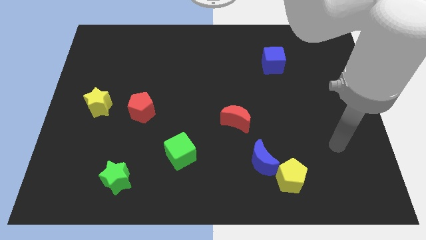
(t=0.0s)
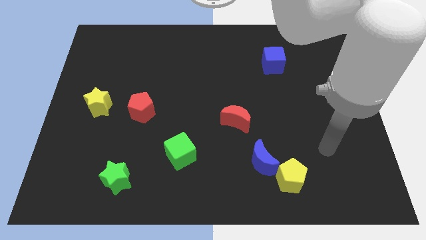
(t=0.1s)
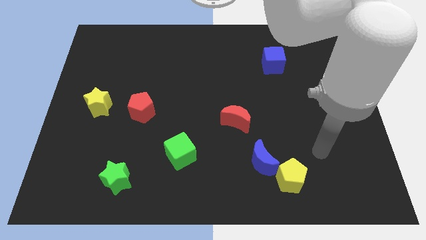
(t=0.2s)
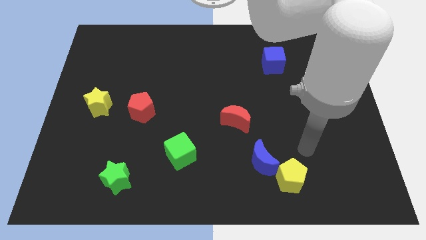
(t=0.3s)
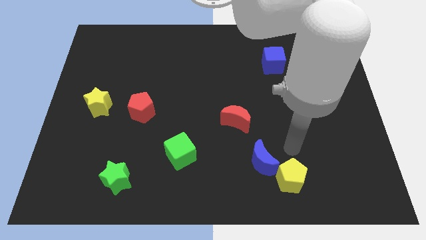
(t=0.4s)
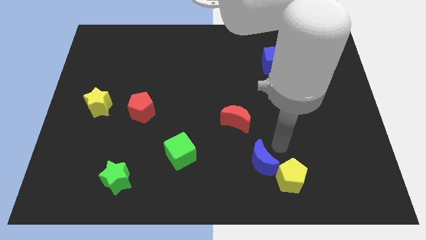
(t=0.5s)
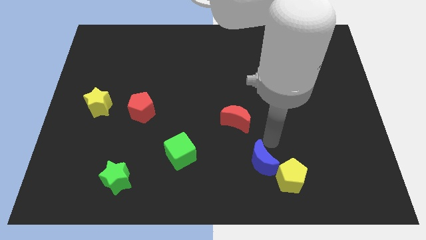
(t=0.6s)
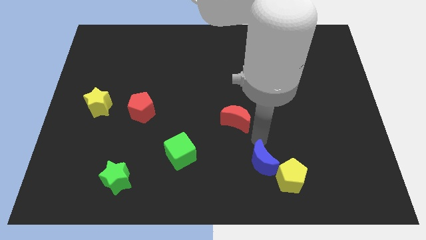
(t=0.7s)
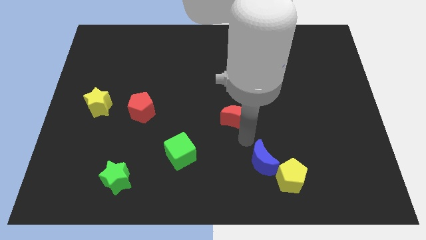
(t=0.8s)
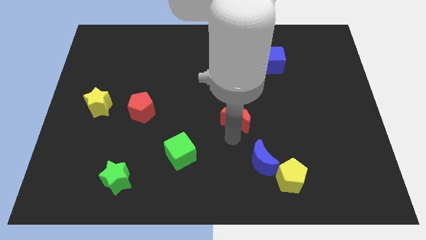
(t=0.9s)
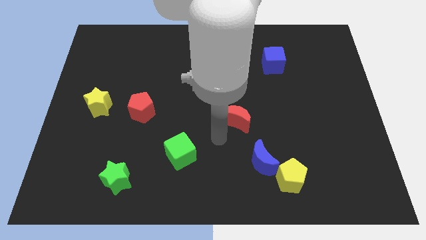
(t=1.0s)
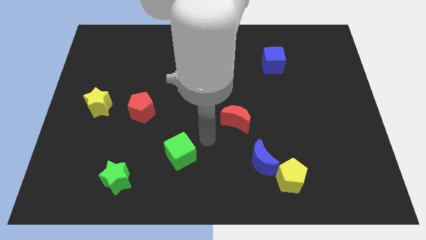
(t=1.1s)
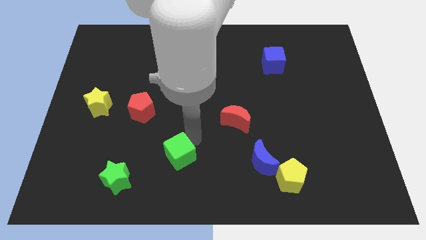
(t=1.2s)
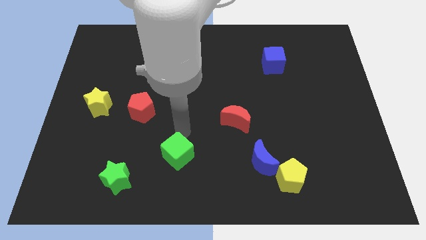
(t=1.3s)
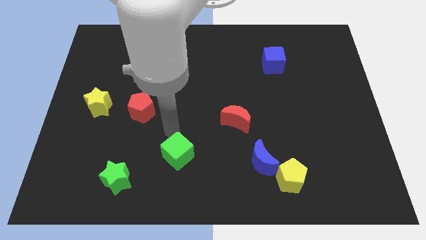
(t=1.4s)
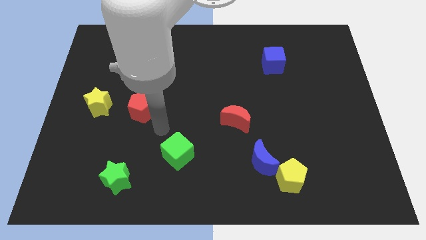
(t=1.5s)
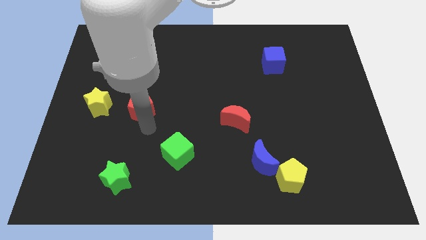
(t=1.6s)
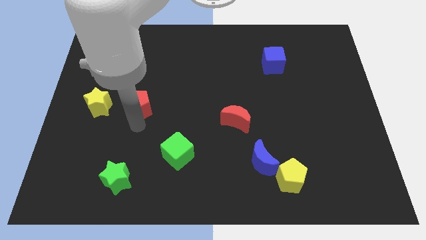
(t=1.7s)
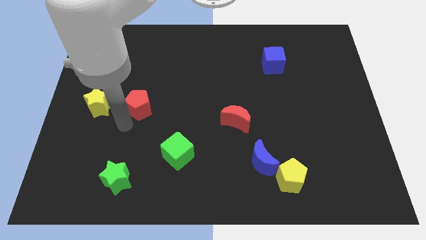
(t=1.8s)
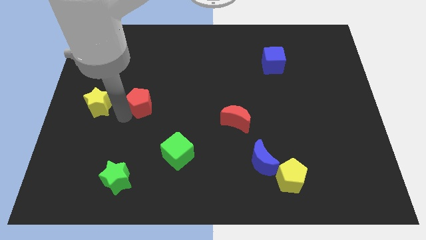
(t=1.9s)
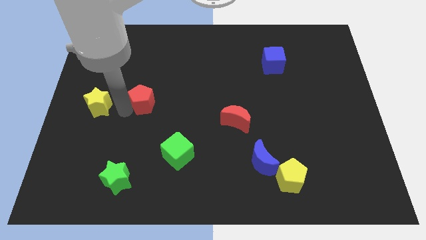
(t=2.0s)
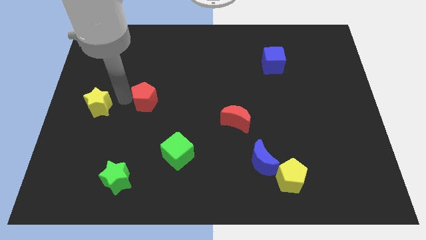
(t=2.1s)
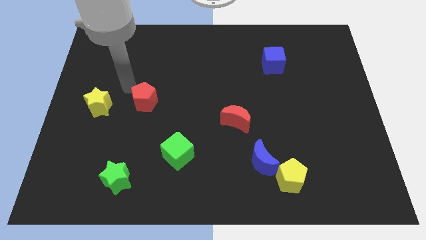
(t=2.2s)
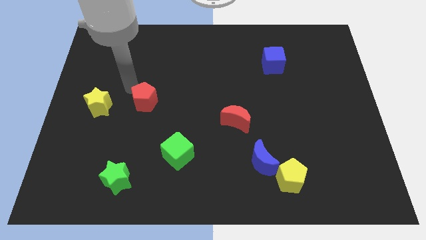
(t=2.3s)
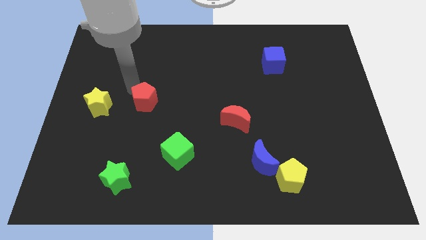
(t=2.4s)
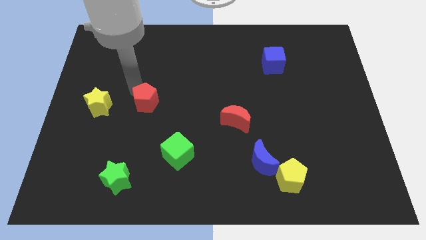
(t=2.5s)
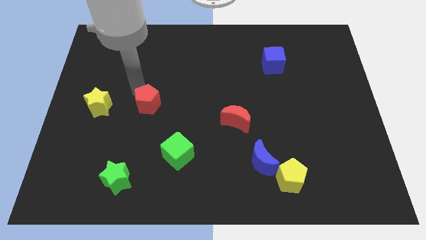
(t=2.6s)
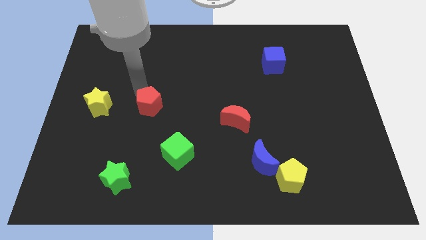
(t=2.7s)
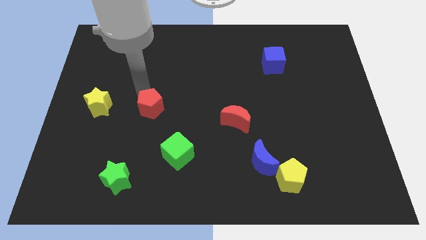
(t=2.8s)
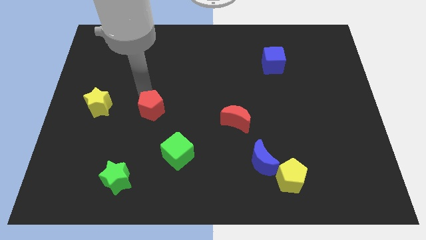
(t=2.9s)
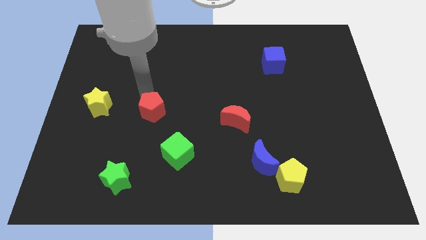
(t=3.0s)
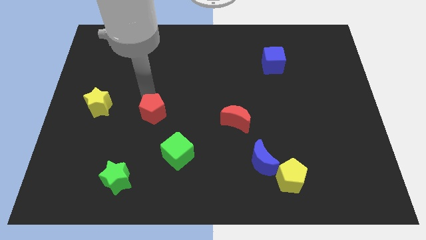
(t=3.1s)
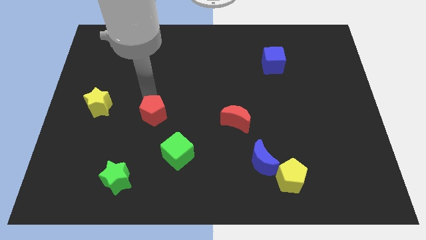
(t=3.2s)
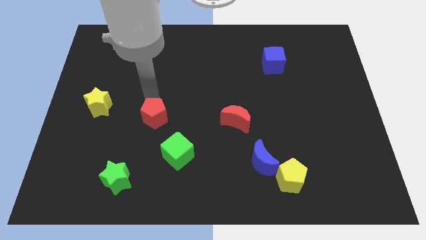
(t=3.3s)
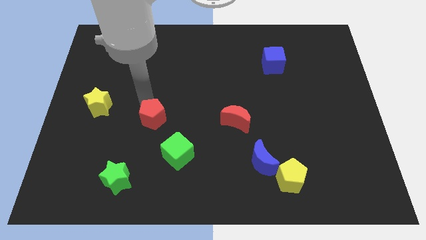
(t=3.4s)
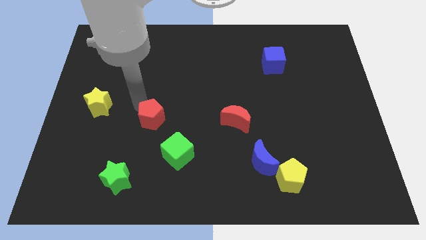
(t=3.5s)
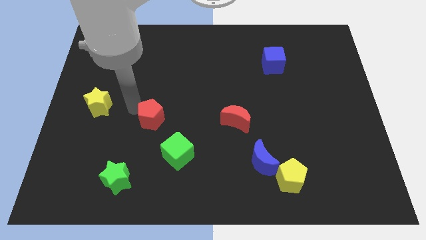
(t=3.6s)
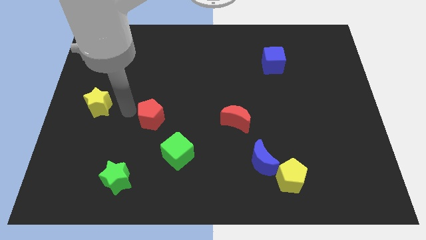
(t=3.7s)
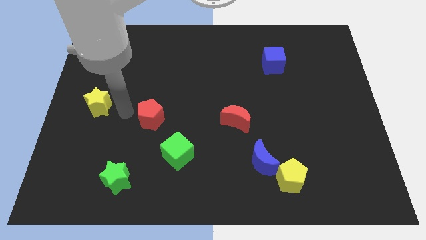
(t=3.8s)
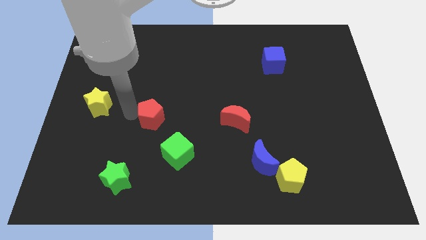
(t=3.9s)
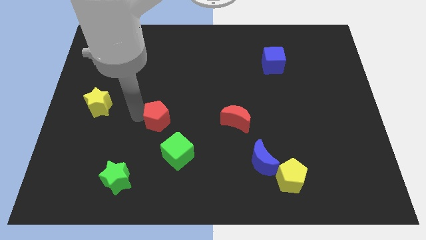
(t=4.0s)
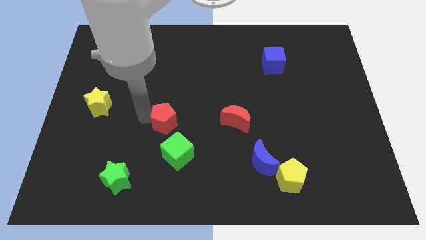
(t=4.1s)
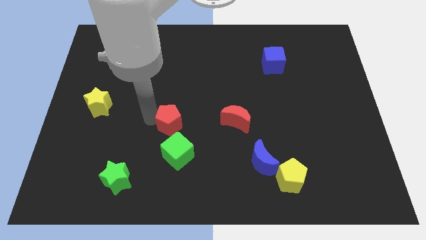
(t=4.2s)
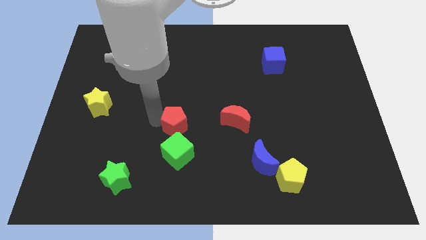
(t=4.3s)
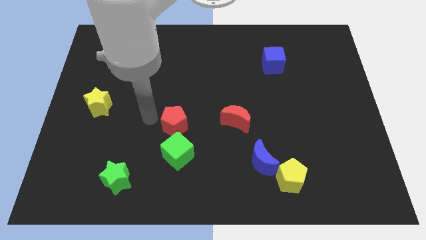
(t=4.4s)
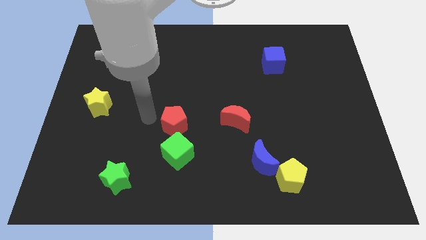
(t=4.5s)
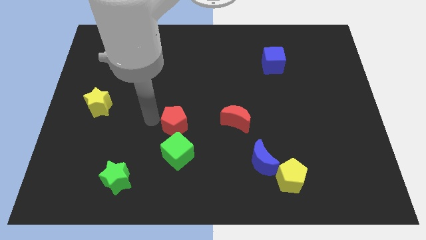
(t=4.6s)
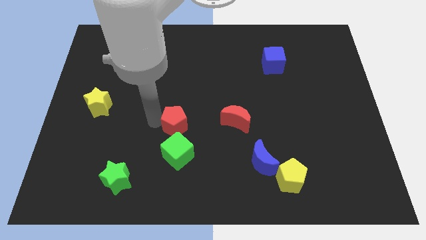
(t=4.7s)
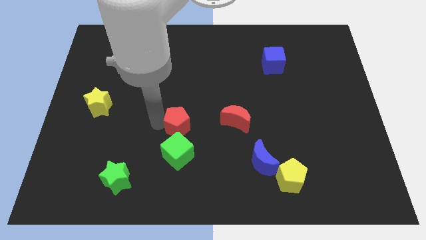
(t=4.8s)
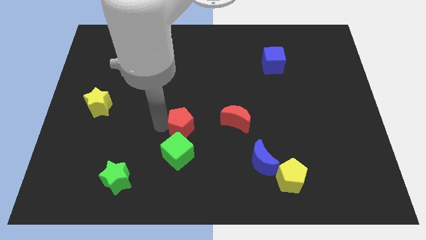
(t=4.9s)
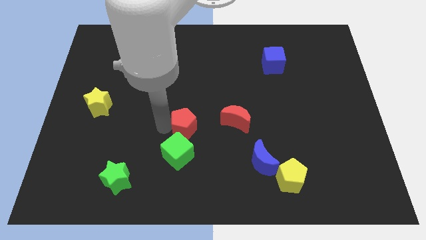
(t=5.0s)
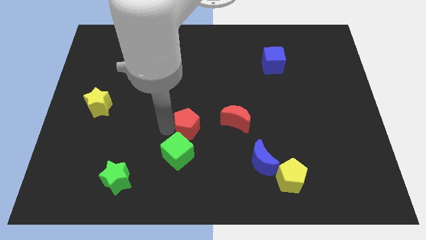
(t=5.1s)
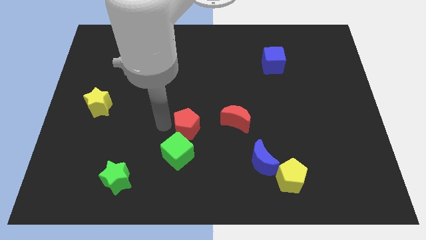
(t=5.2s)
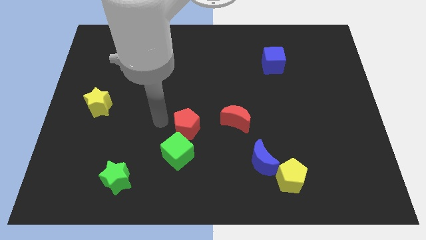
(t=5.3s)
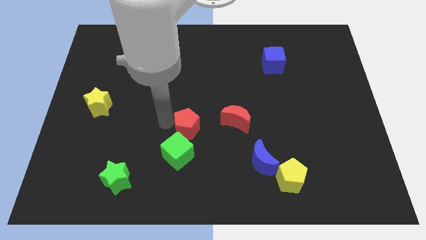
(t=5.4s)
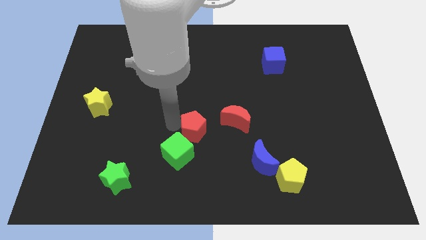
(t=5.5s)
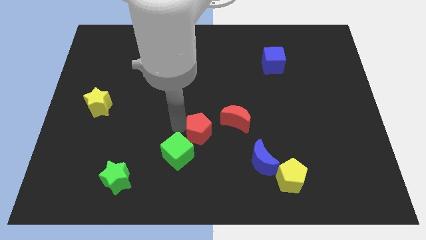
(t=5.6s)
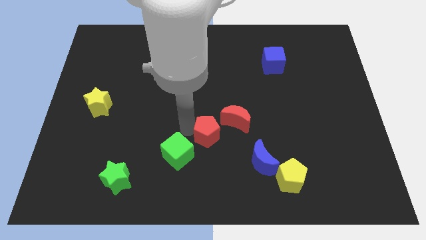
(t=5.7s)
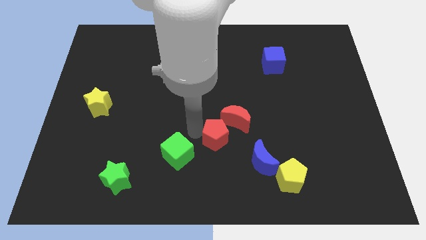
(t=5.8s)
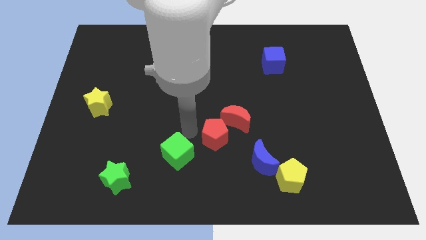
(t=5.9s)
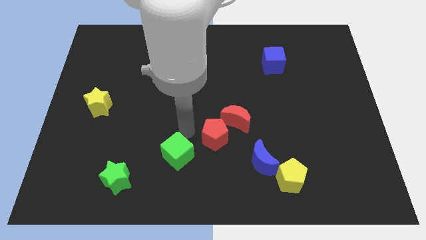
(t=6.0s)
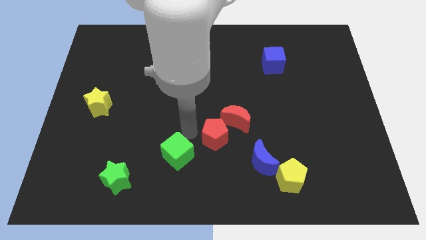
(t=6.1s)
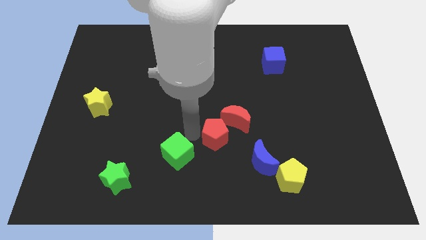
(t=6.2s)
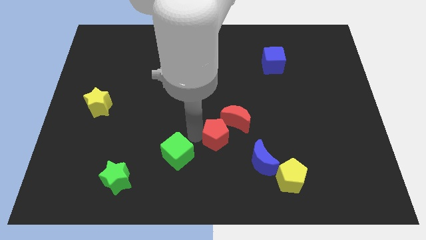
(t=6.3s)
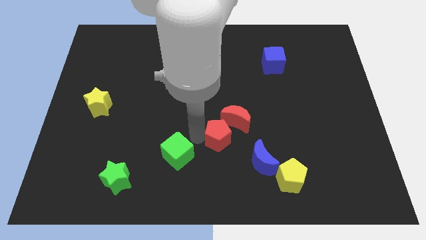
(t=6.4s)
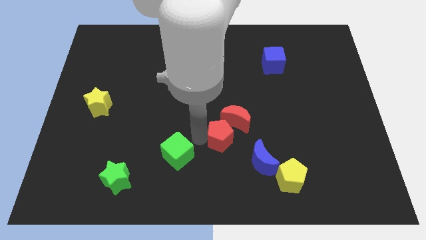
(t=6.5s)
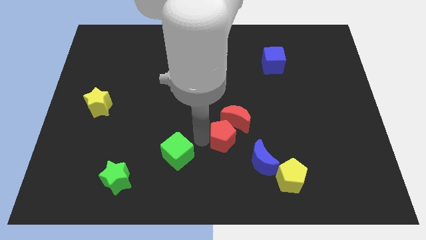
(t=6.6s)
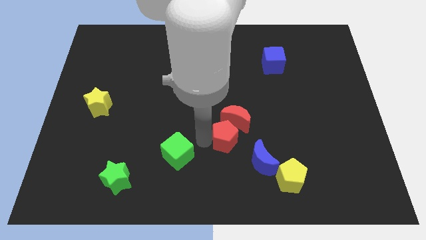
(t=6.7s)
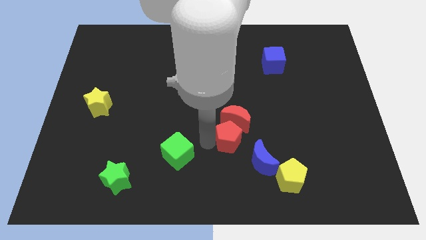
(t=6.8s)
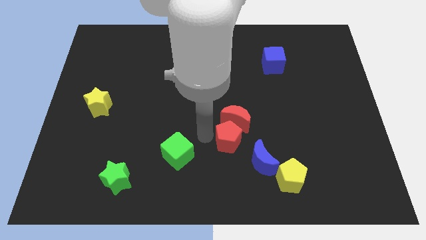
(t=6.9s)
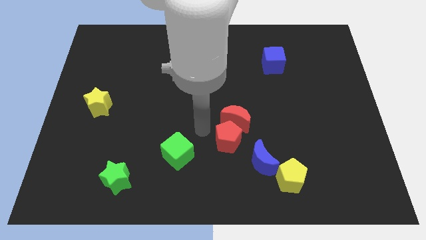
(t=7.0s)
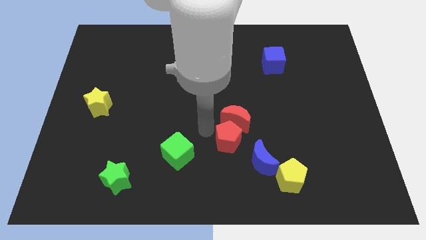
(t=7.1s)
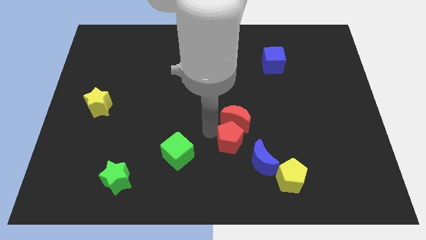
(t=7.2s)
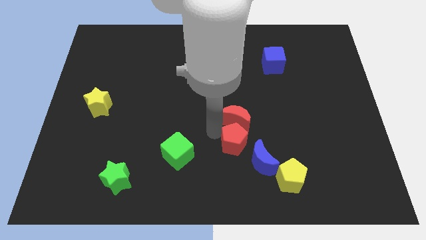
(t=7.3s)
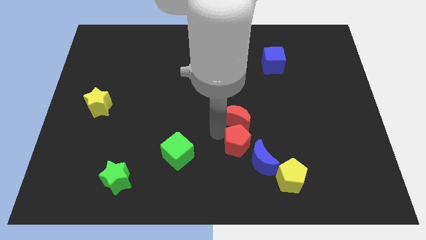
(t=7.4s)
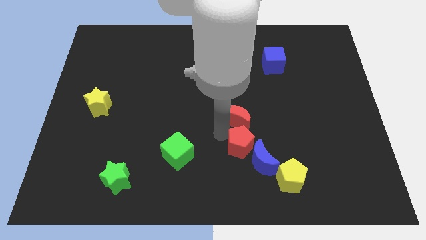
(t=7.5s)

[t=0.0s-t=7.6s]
push the red pentagon diagonally up and to the left of the yellow pentagon
